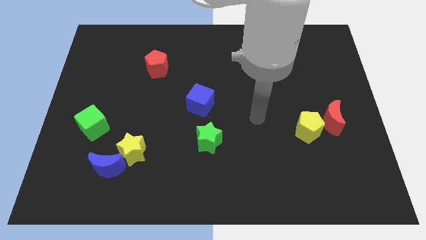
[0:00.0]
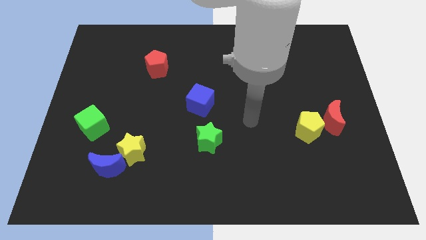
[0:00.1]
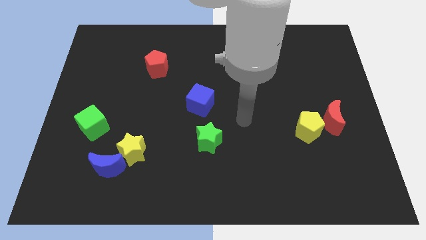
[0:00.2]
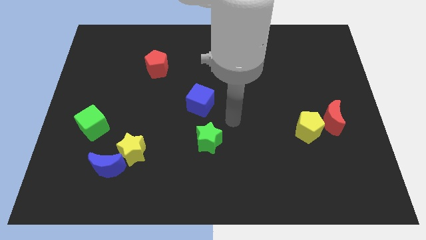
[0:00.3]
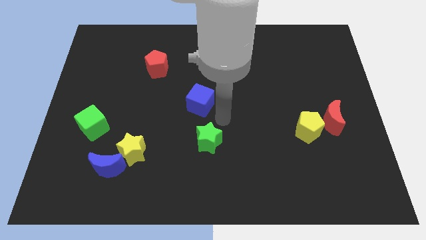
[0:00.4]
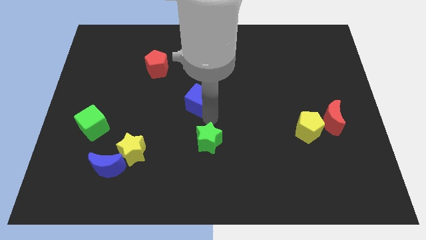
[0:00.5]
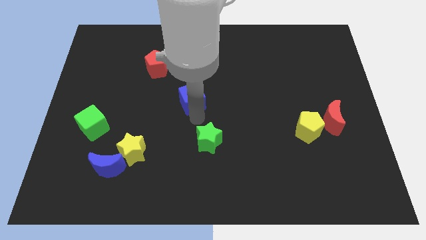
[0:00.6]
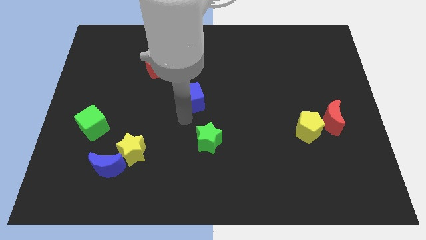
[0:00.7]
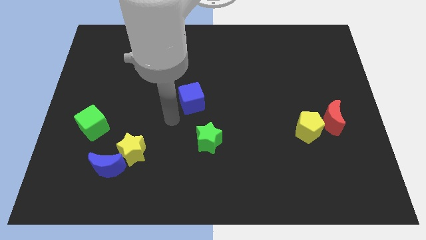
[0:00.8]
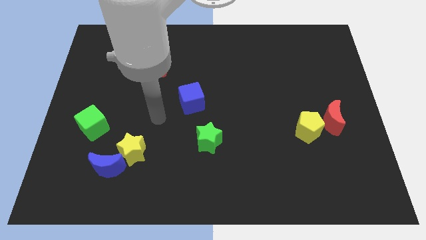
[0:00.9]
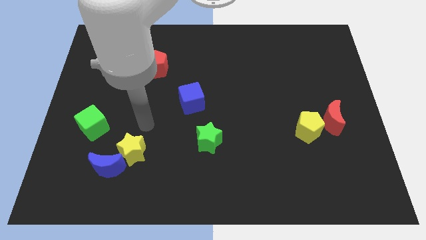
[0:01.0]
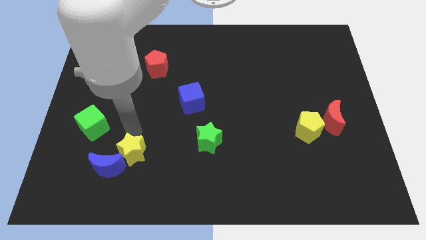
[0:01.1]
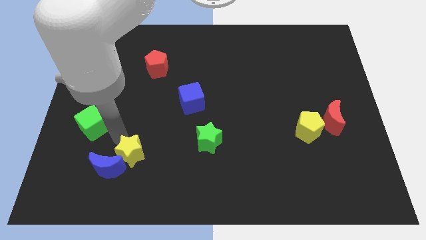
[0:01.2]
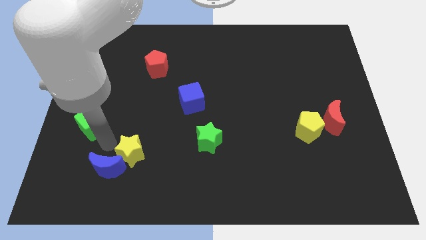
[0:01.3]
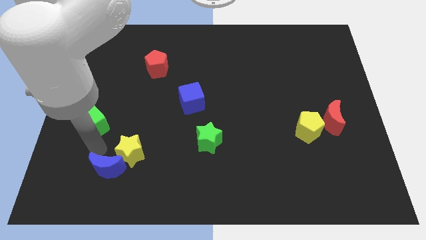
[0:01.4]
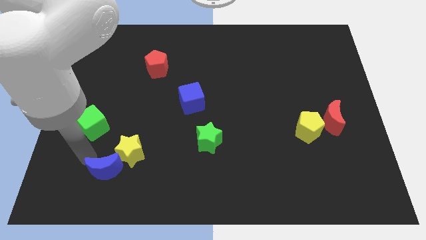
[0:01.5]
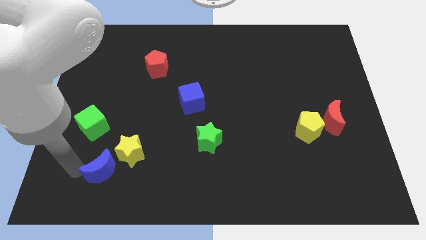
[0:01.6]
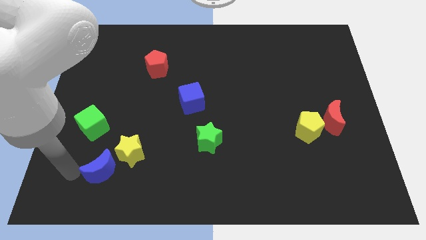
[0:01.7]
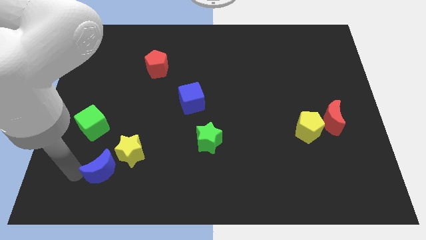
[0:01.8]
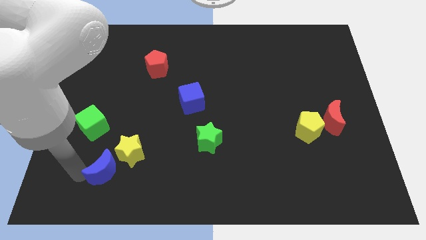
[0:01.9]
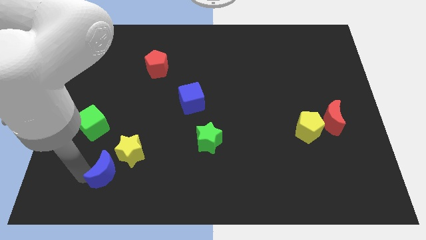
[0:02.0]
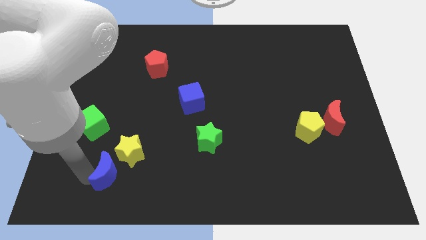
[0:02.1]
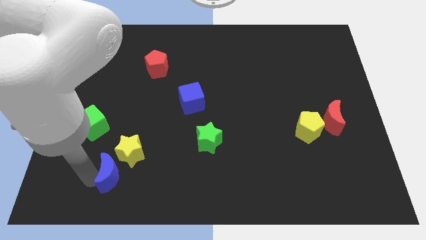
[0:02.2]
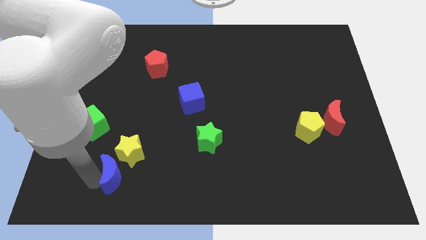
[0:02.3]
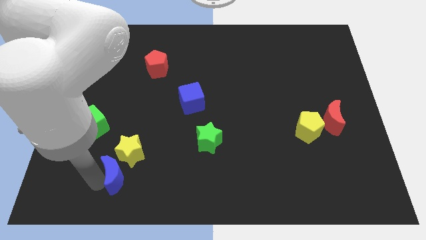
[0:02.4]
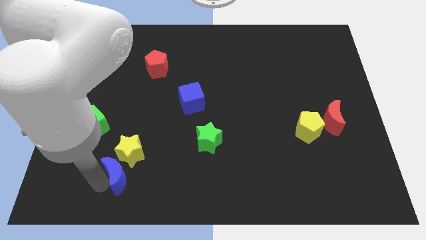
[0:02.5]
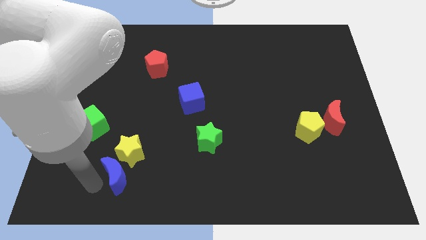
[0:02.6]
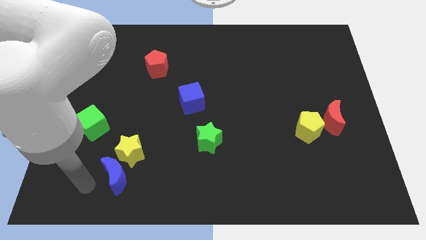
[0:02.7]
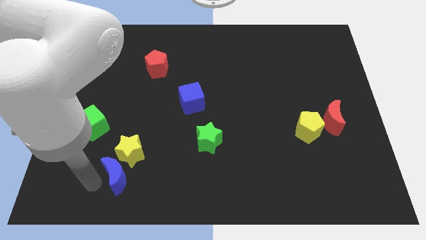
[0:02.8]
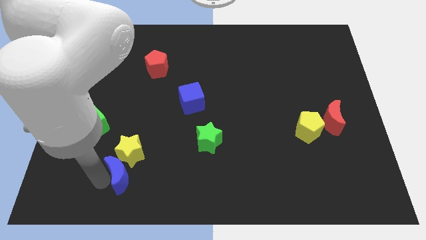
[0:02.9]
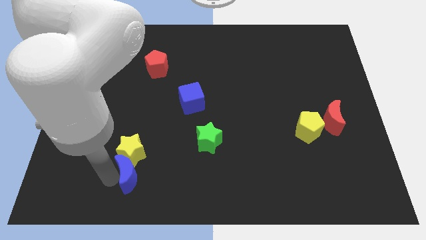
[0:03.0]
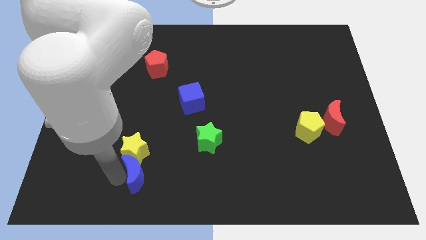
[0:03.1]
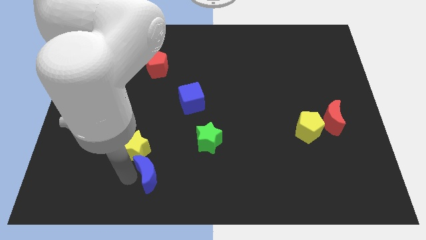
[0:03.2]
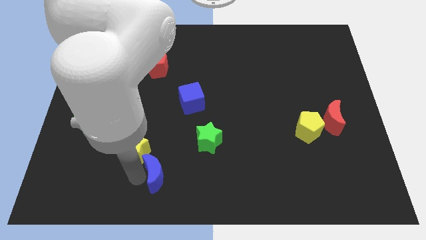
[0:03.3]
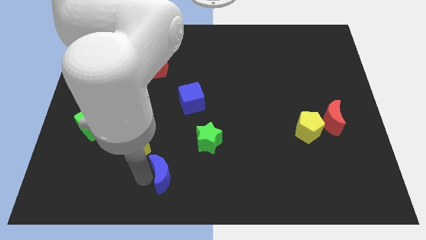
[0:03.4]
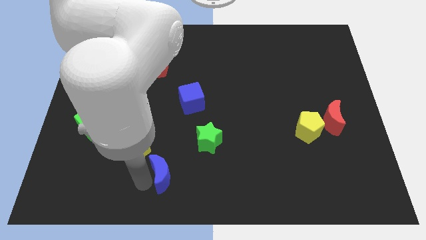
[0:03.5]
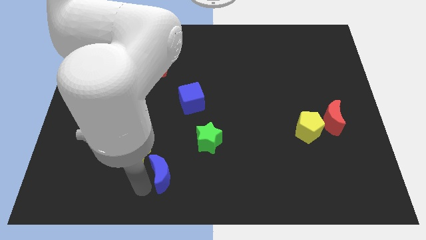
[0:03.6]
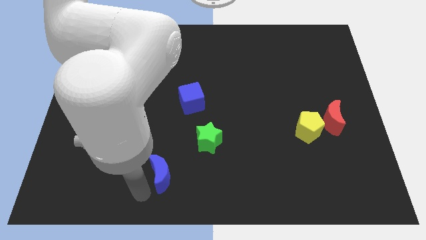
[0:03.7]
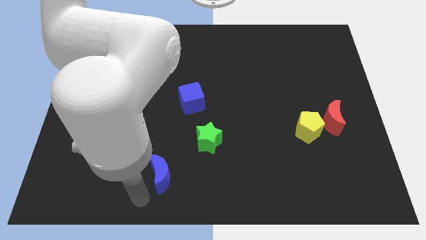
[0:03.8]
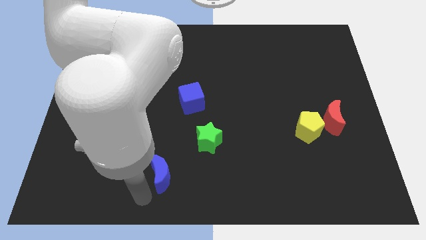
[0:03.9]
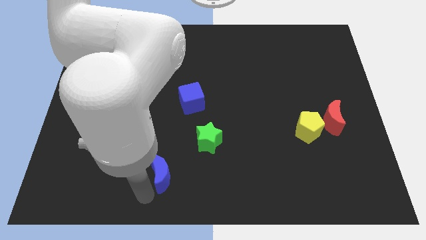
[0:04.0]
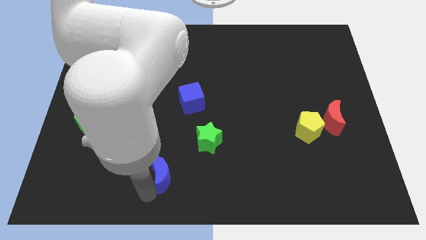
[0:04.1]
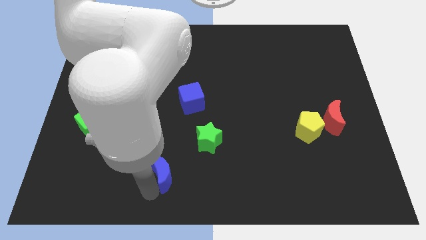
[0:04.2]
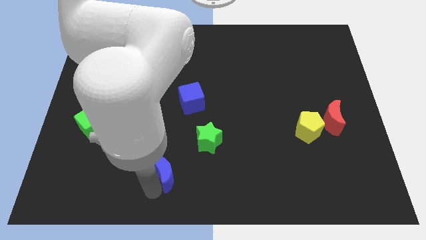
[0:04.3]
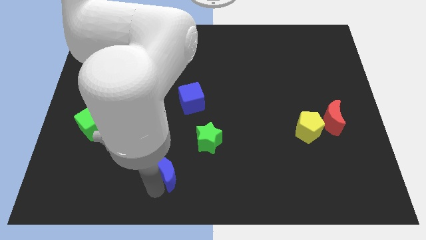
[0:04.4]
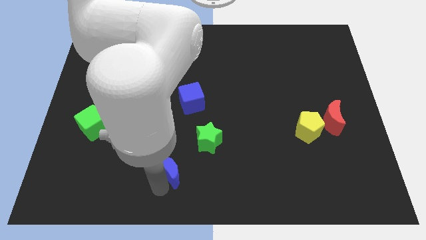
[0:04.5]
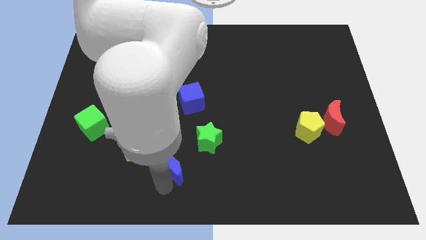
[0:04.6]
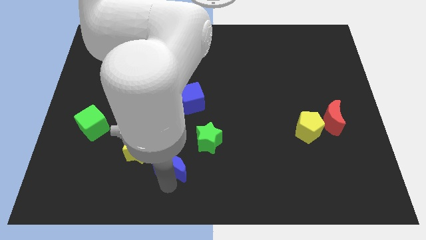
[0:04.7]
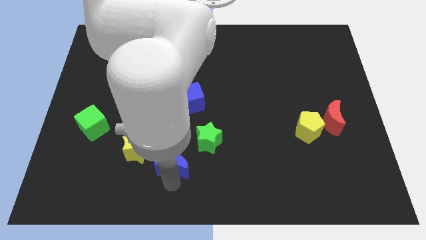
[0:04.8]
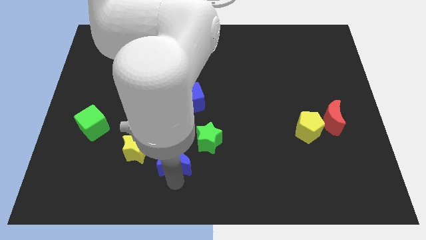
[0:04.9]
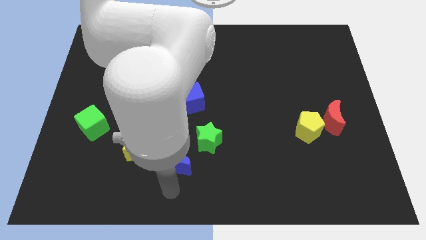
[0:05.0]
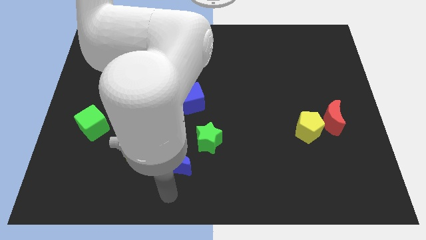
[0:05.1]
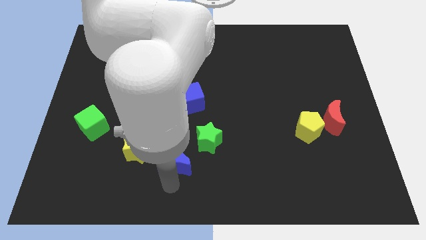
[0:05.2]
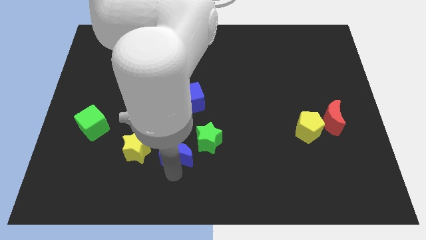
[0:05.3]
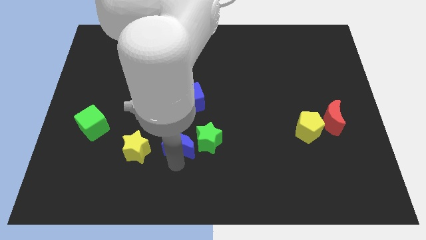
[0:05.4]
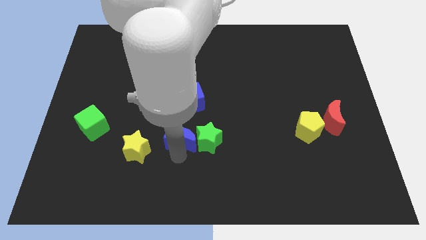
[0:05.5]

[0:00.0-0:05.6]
put the blue moon diagonally up and to the left of the green star

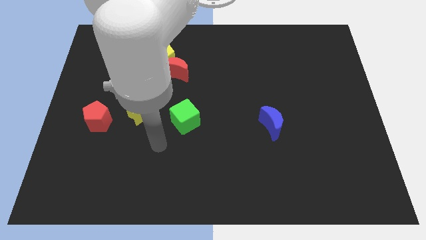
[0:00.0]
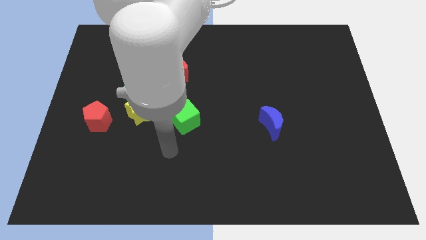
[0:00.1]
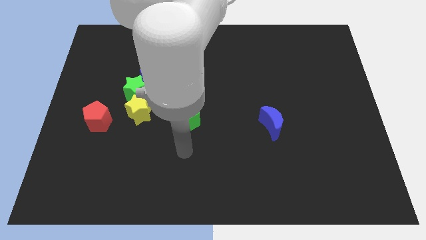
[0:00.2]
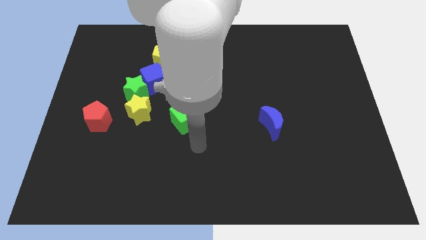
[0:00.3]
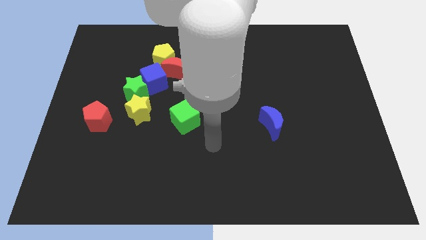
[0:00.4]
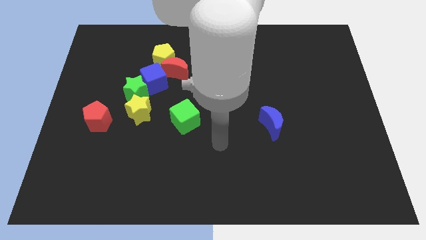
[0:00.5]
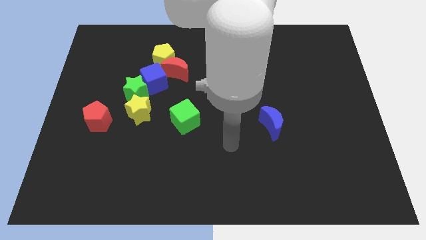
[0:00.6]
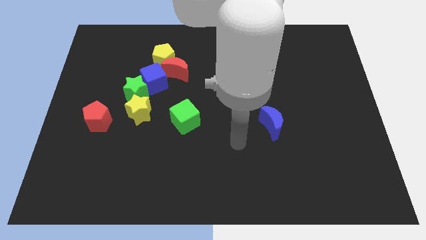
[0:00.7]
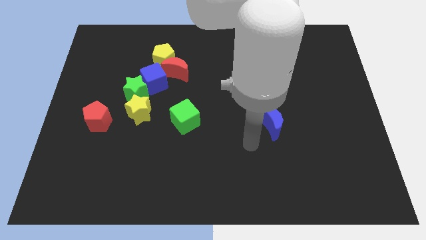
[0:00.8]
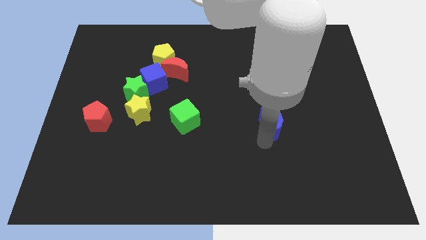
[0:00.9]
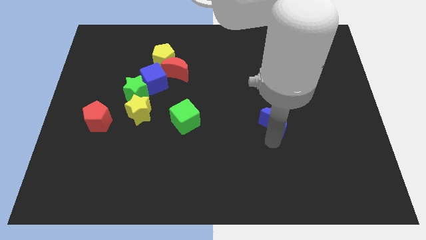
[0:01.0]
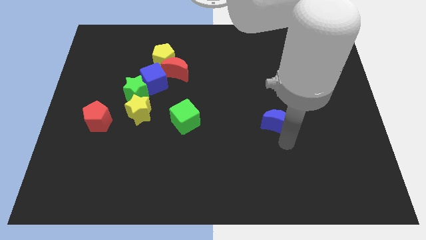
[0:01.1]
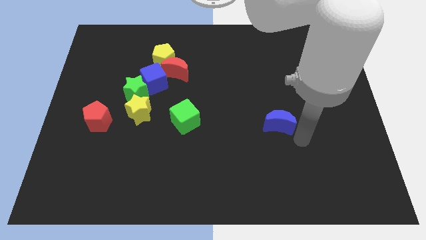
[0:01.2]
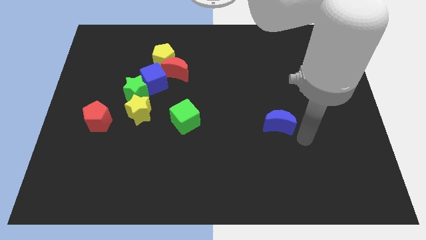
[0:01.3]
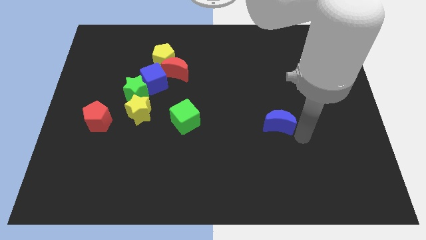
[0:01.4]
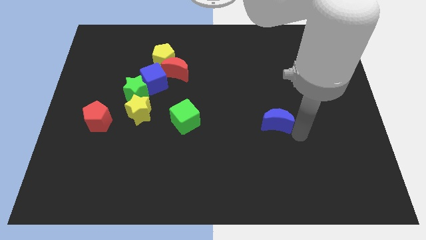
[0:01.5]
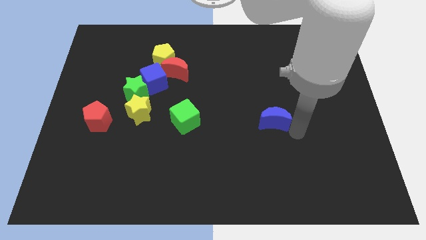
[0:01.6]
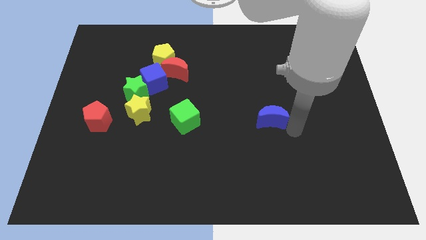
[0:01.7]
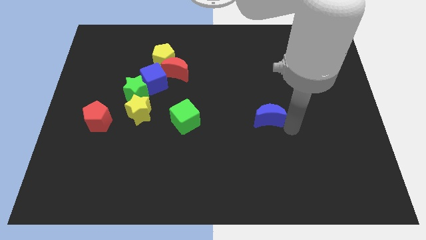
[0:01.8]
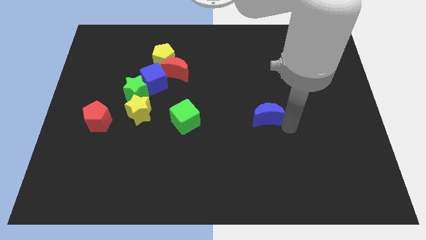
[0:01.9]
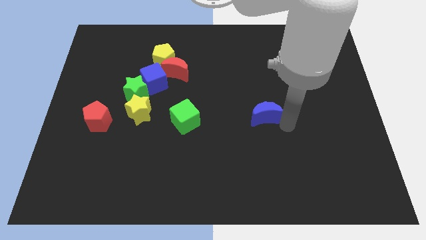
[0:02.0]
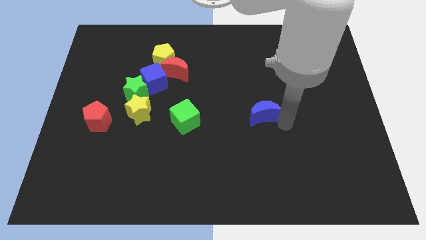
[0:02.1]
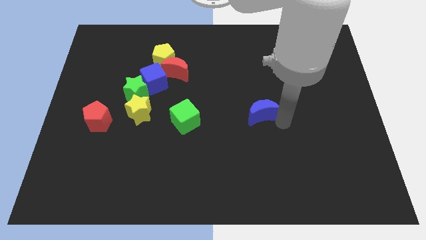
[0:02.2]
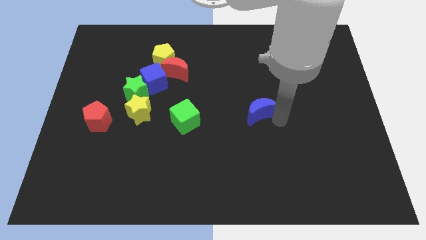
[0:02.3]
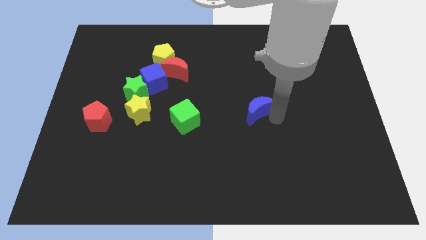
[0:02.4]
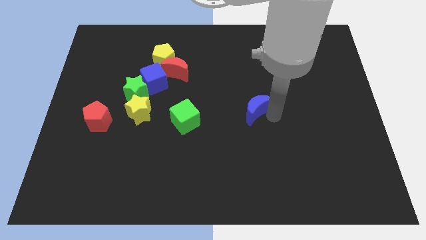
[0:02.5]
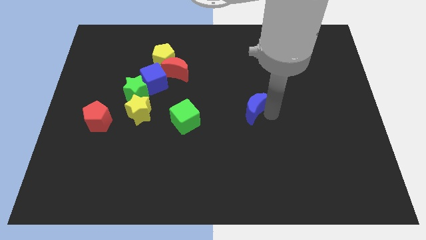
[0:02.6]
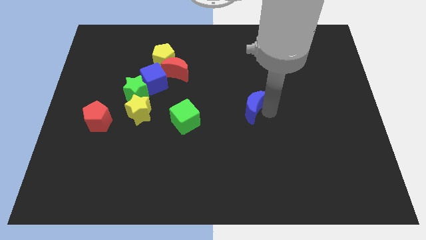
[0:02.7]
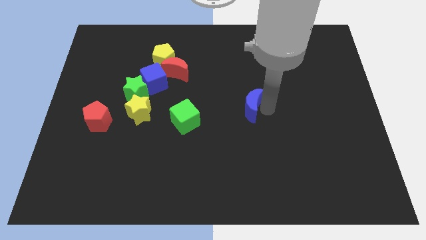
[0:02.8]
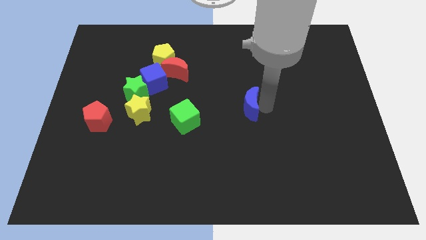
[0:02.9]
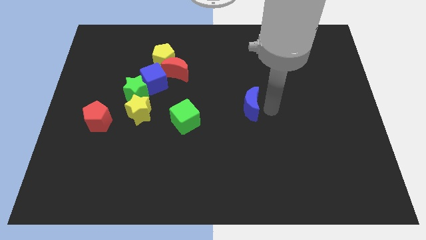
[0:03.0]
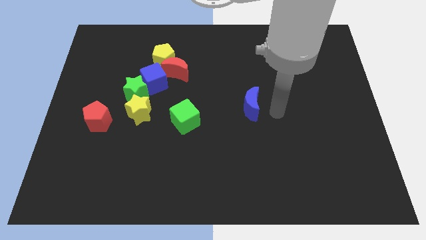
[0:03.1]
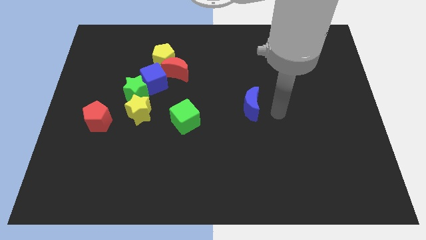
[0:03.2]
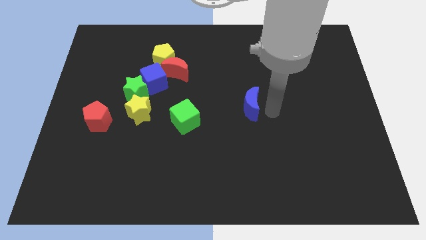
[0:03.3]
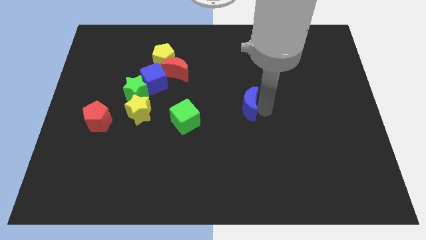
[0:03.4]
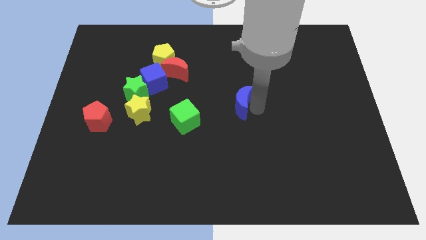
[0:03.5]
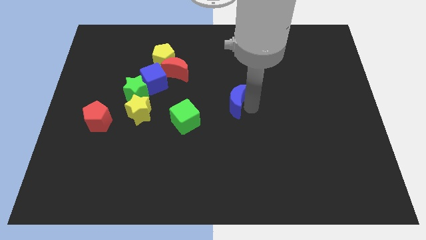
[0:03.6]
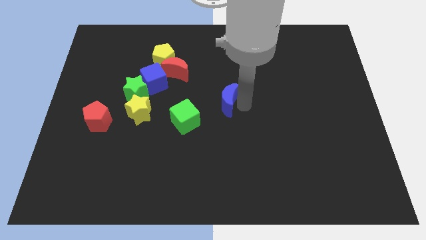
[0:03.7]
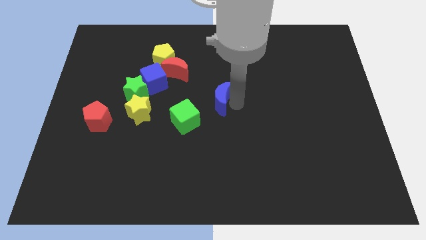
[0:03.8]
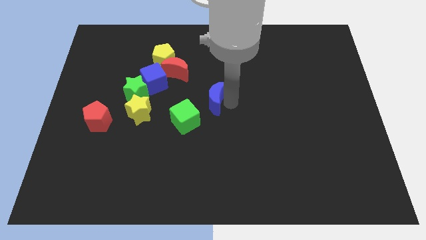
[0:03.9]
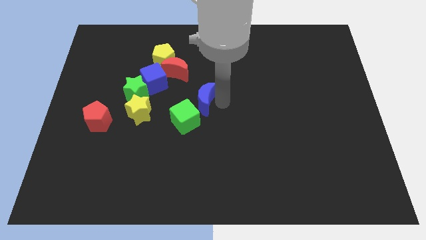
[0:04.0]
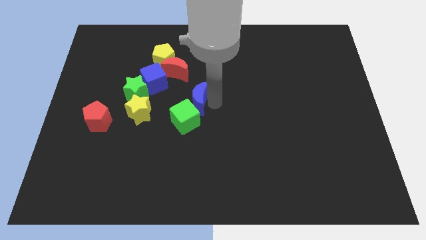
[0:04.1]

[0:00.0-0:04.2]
push the blue moon right of the green star
